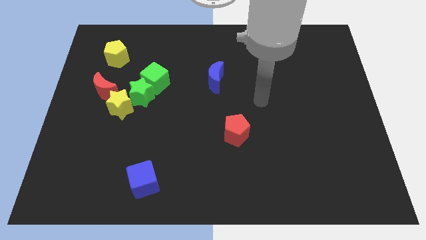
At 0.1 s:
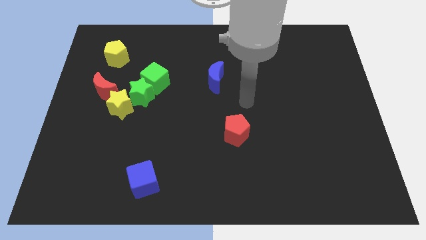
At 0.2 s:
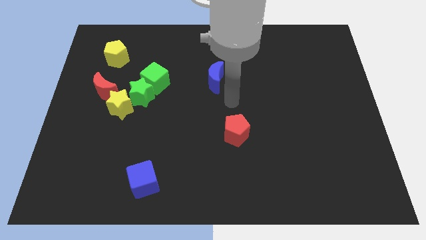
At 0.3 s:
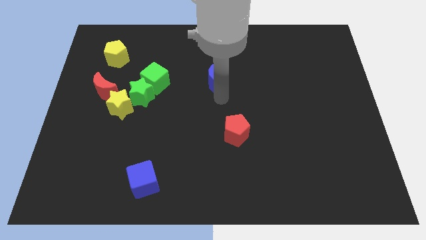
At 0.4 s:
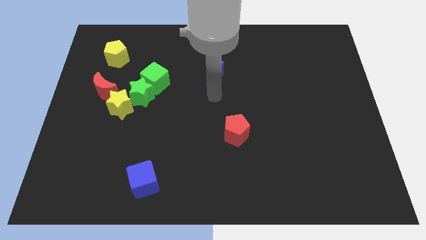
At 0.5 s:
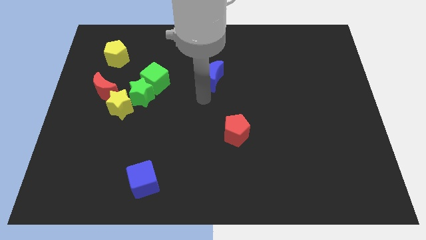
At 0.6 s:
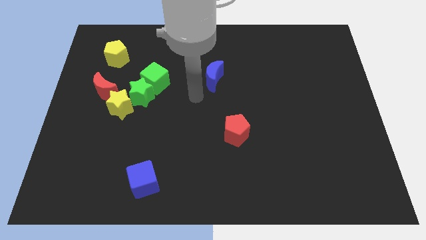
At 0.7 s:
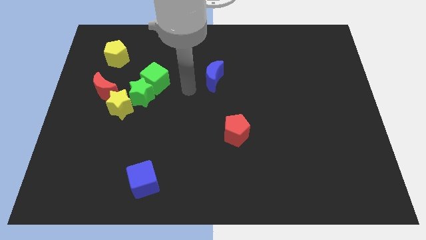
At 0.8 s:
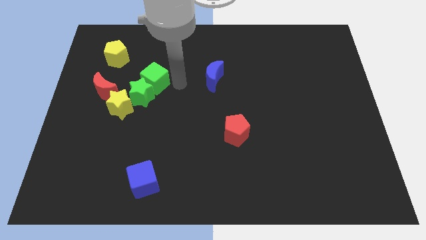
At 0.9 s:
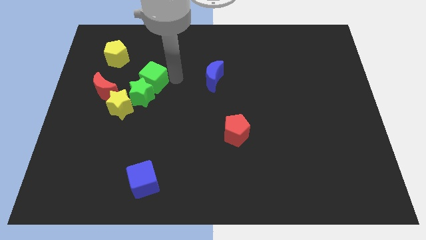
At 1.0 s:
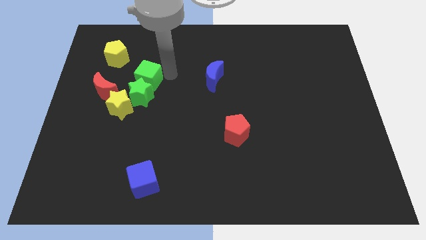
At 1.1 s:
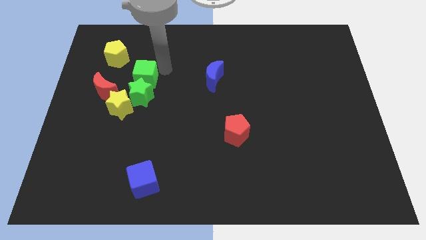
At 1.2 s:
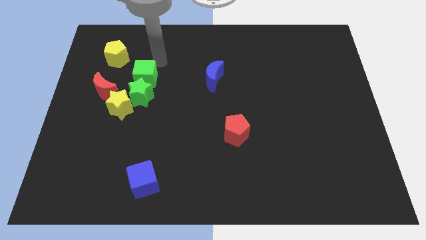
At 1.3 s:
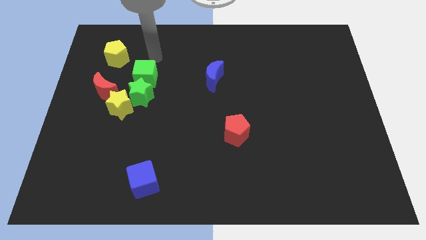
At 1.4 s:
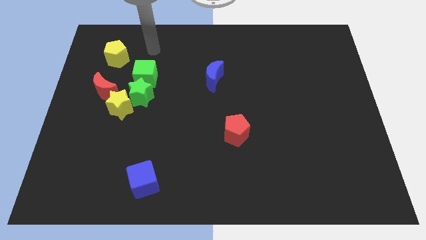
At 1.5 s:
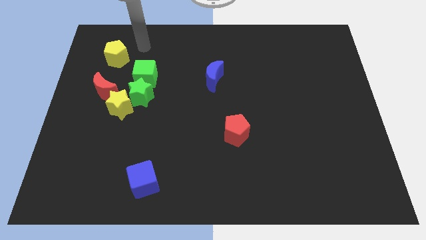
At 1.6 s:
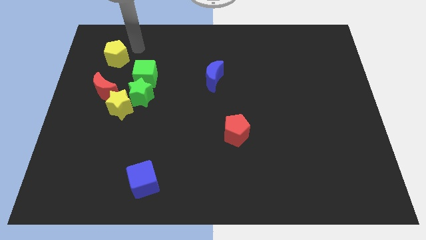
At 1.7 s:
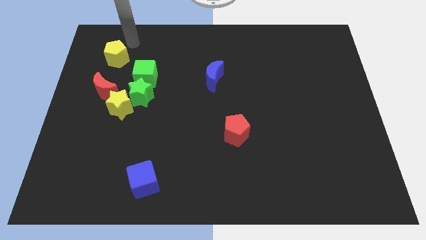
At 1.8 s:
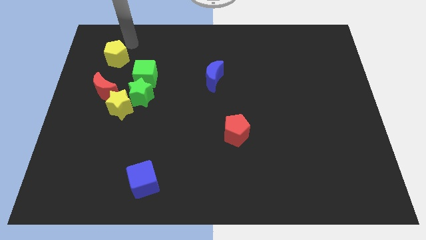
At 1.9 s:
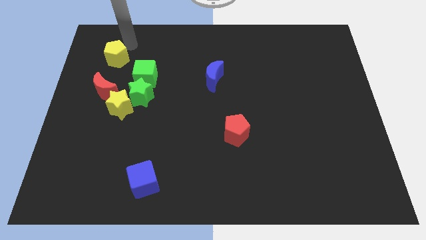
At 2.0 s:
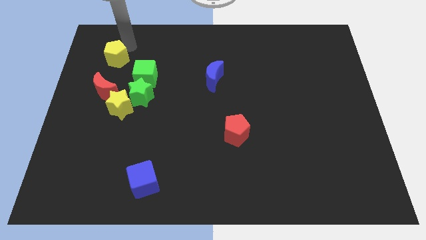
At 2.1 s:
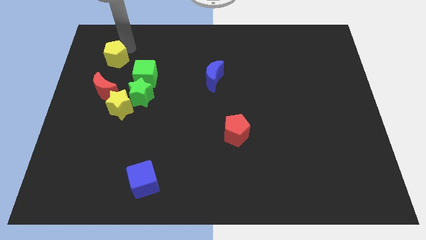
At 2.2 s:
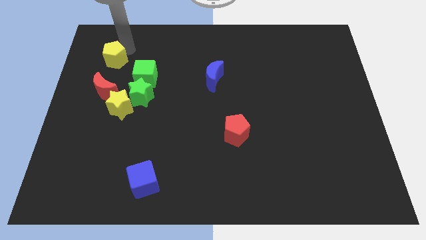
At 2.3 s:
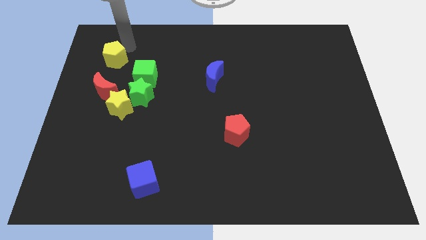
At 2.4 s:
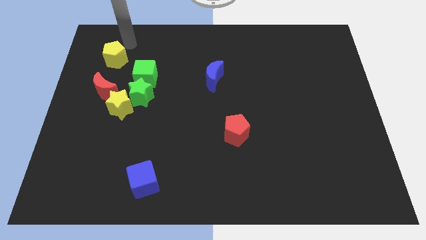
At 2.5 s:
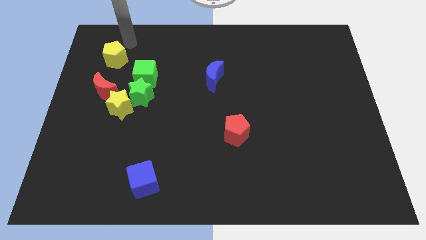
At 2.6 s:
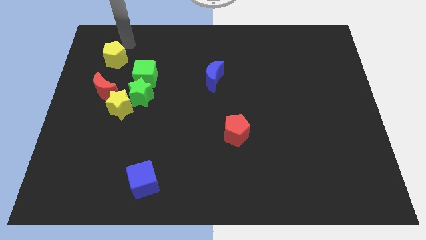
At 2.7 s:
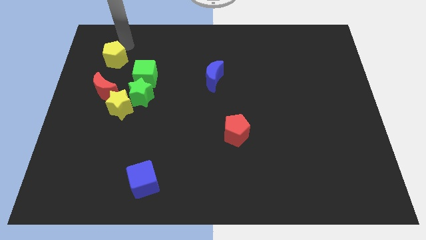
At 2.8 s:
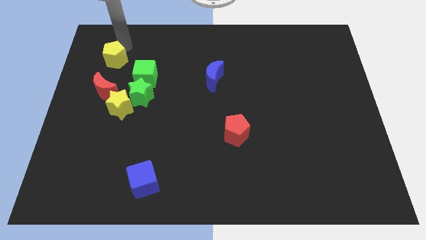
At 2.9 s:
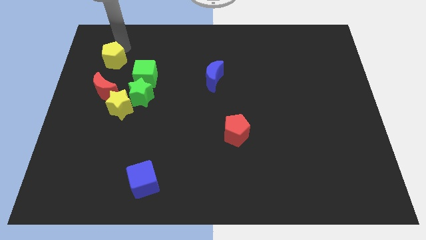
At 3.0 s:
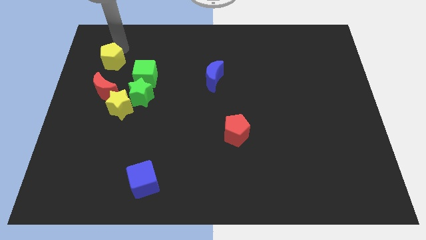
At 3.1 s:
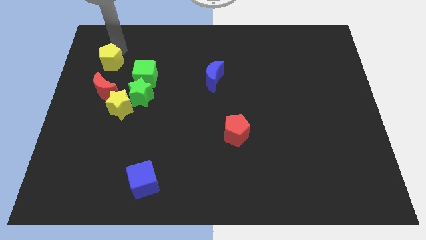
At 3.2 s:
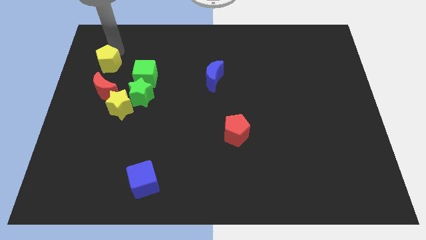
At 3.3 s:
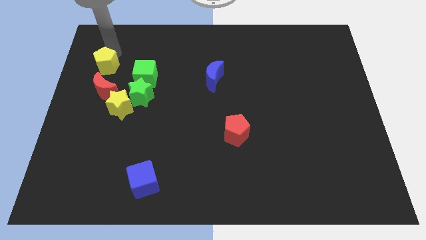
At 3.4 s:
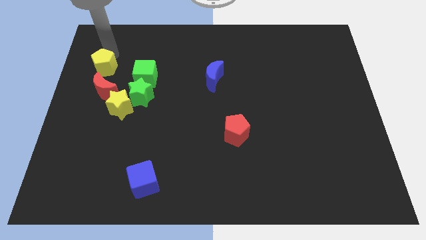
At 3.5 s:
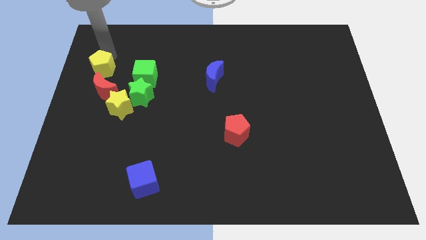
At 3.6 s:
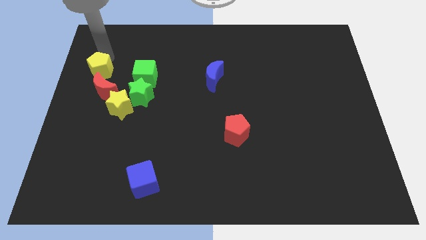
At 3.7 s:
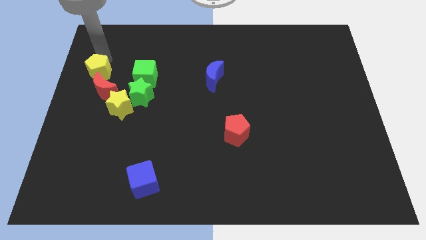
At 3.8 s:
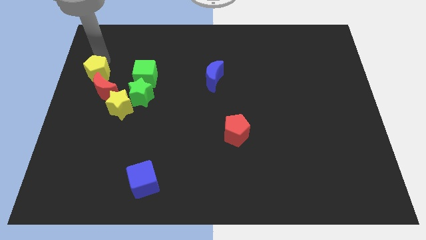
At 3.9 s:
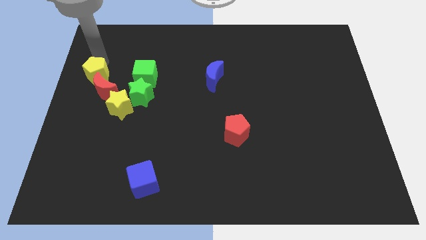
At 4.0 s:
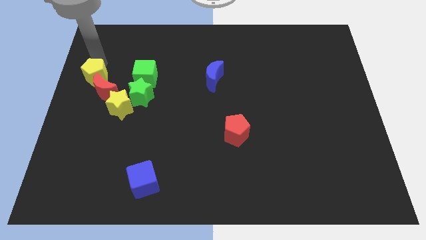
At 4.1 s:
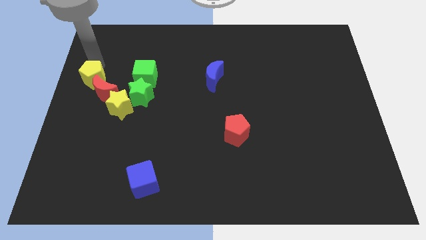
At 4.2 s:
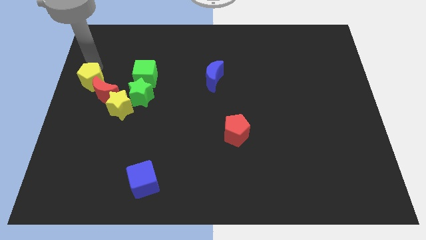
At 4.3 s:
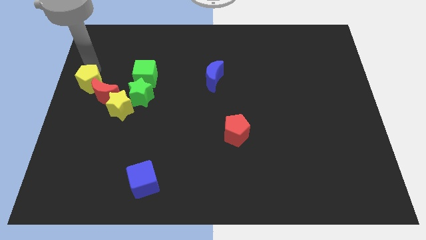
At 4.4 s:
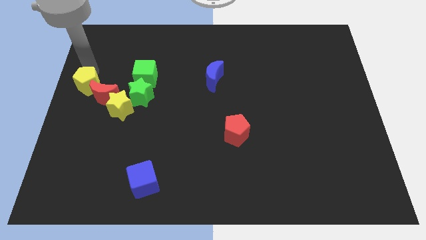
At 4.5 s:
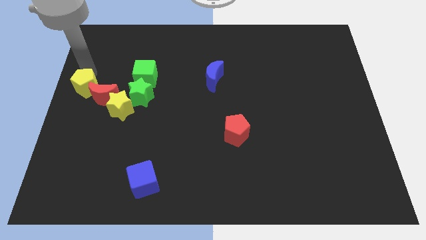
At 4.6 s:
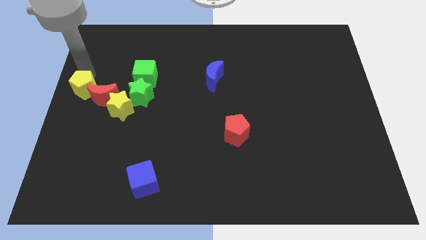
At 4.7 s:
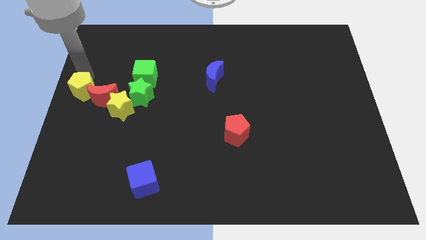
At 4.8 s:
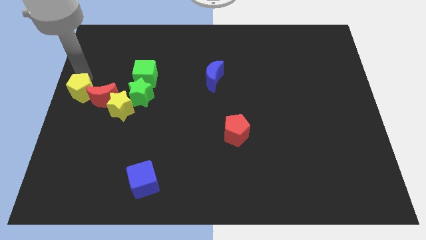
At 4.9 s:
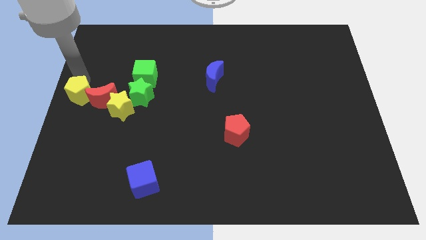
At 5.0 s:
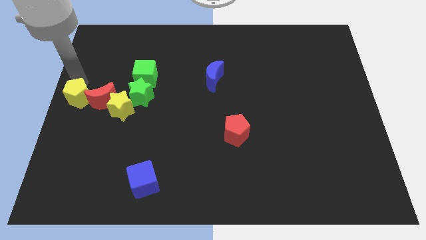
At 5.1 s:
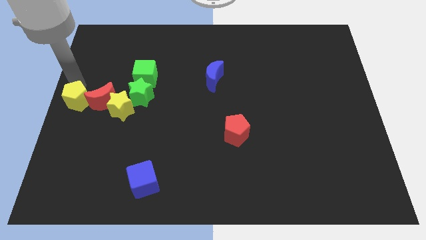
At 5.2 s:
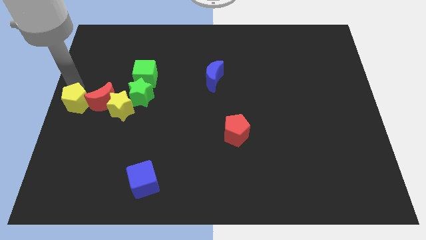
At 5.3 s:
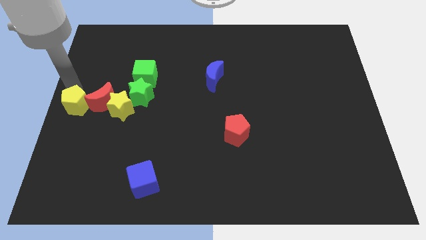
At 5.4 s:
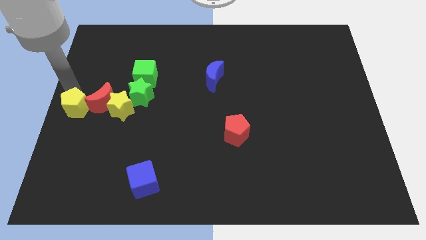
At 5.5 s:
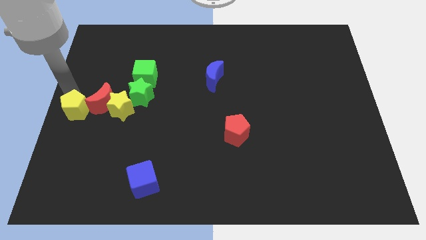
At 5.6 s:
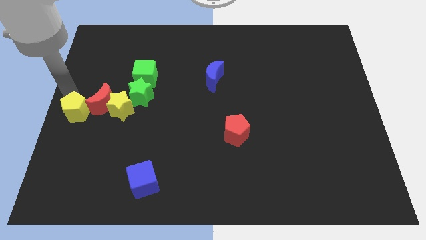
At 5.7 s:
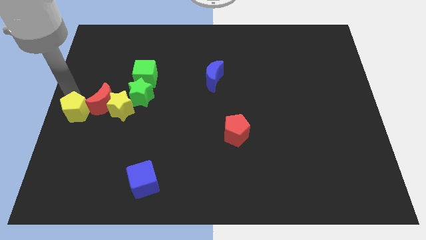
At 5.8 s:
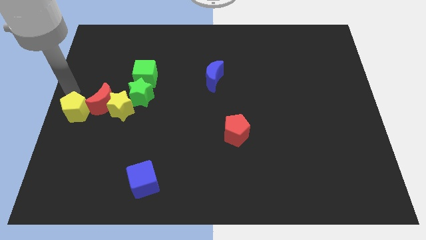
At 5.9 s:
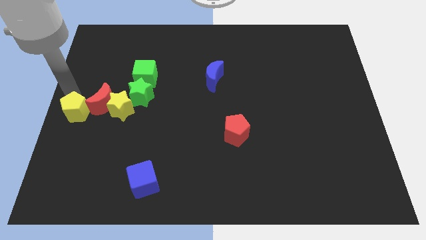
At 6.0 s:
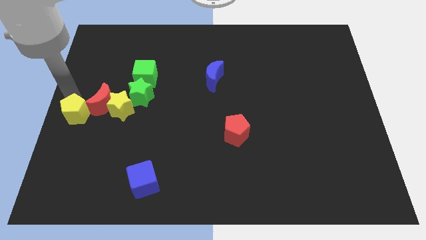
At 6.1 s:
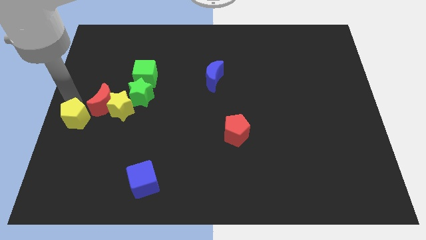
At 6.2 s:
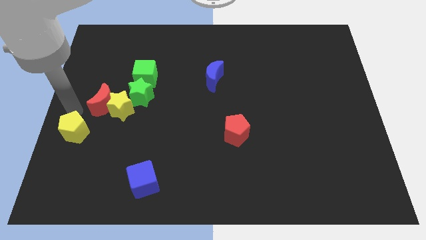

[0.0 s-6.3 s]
move the yellow pentagon down

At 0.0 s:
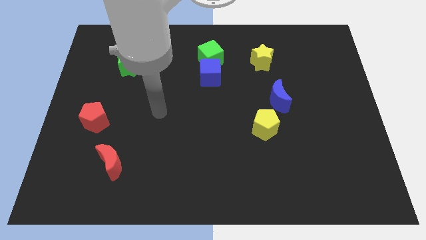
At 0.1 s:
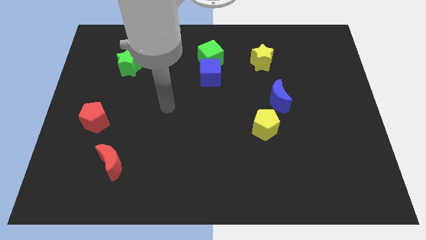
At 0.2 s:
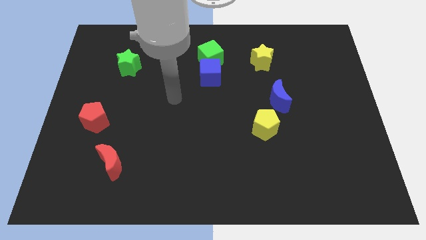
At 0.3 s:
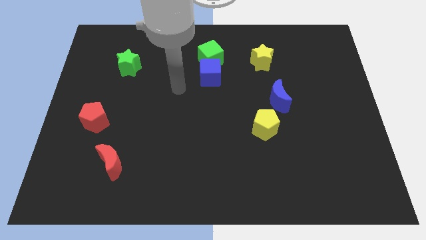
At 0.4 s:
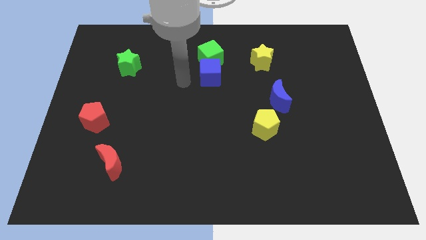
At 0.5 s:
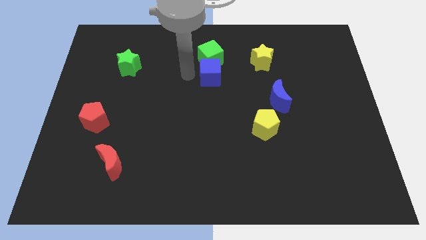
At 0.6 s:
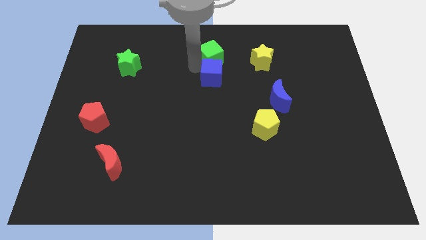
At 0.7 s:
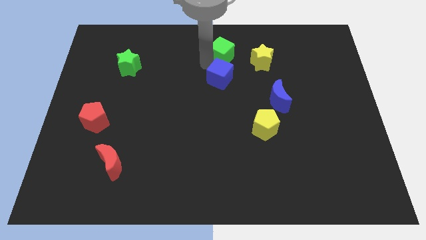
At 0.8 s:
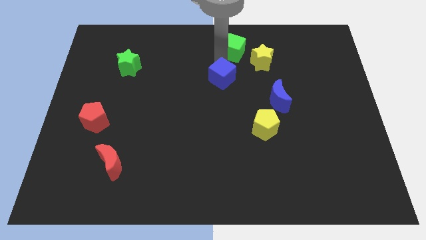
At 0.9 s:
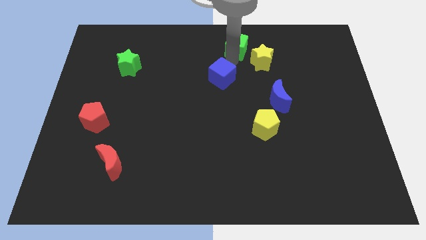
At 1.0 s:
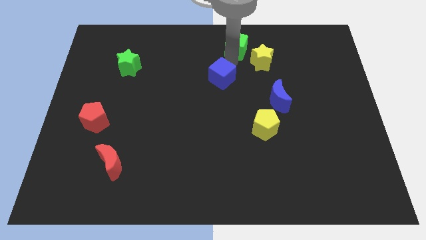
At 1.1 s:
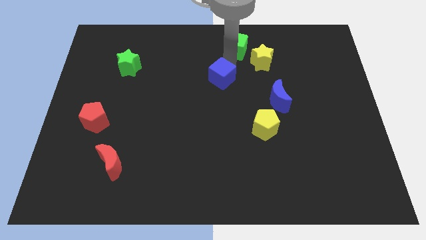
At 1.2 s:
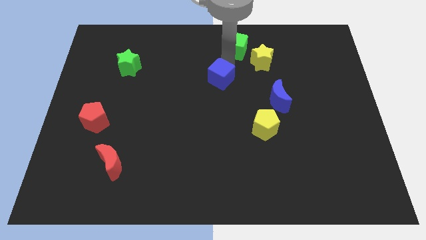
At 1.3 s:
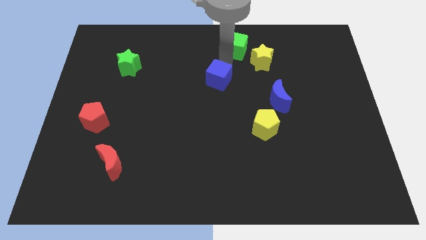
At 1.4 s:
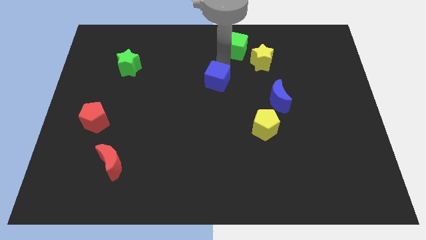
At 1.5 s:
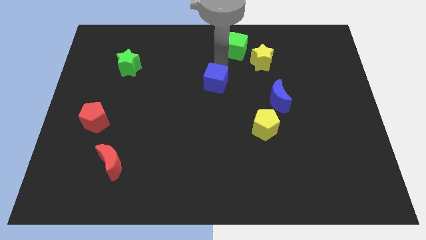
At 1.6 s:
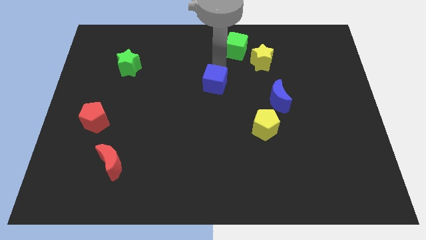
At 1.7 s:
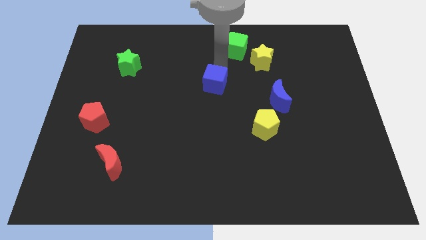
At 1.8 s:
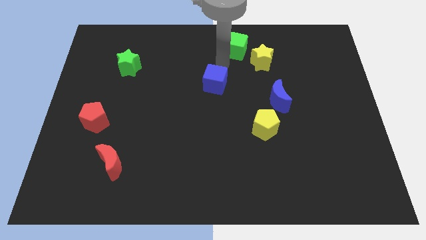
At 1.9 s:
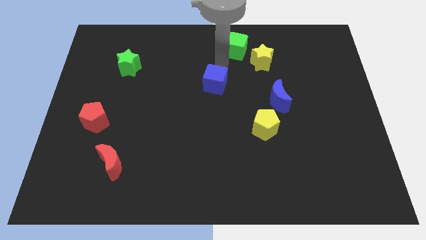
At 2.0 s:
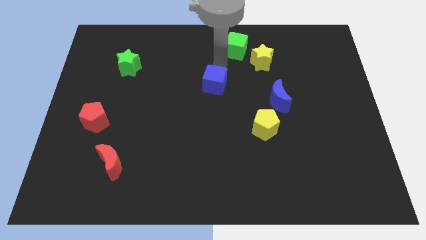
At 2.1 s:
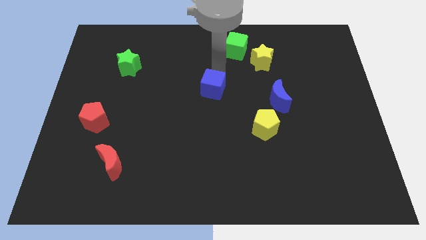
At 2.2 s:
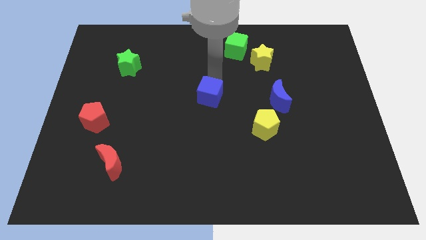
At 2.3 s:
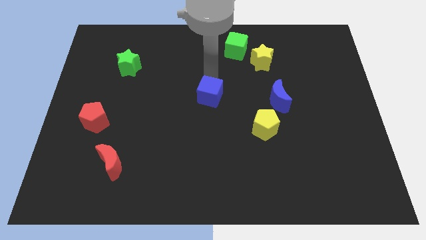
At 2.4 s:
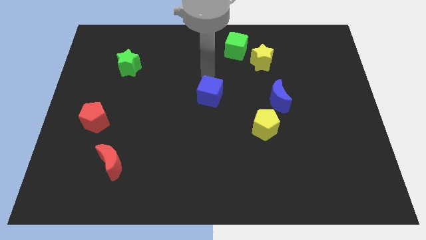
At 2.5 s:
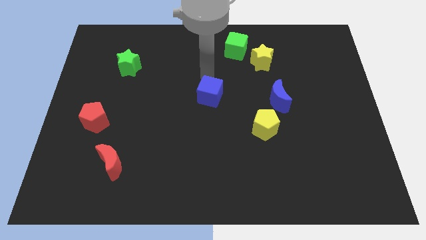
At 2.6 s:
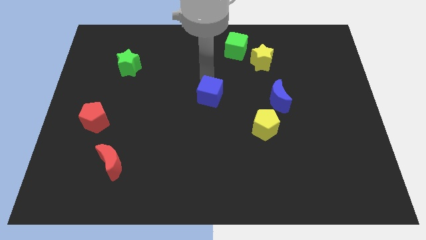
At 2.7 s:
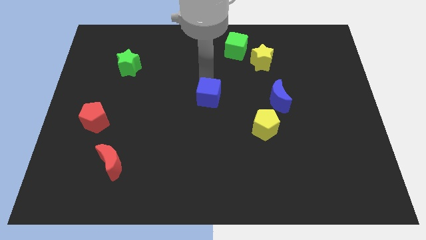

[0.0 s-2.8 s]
slightly slide the blue cube down
